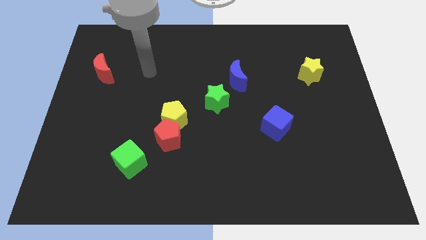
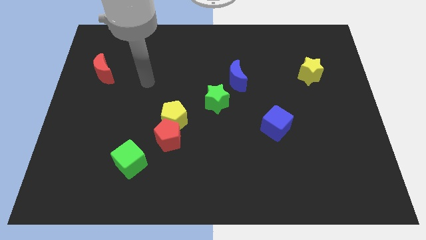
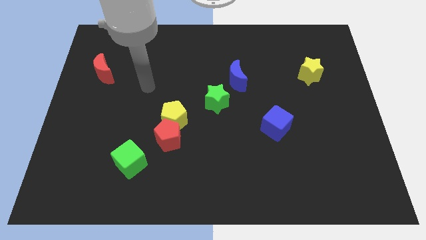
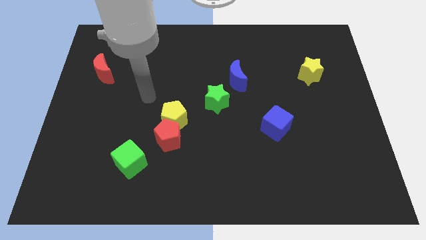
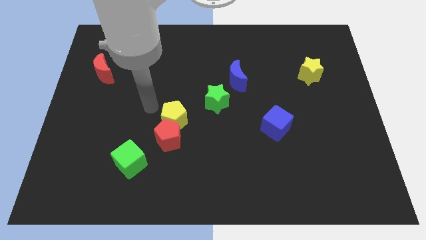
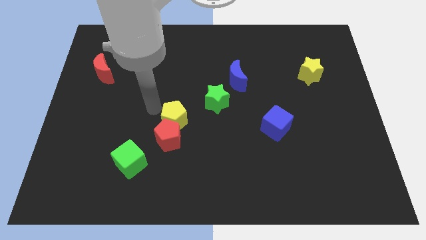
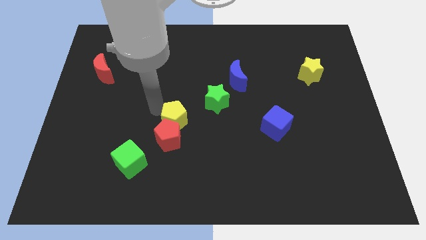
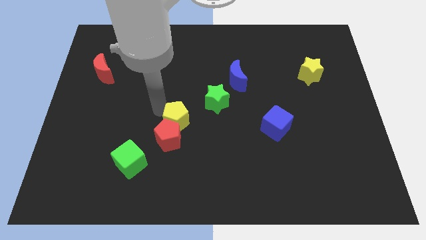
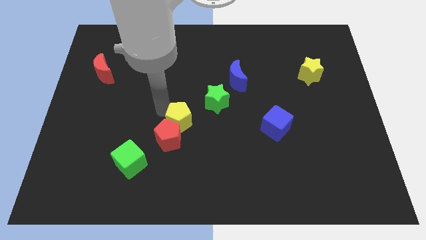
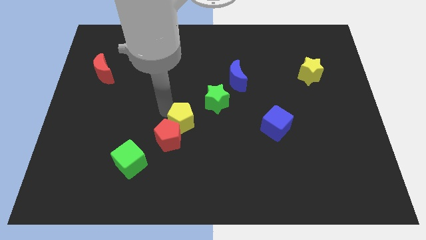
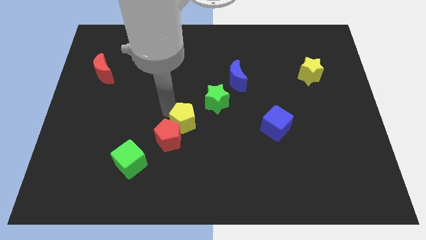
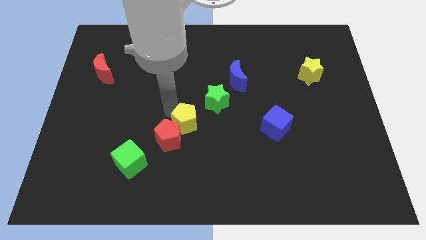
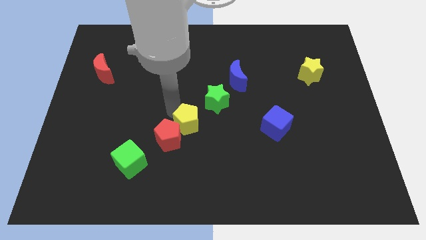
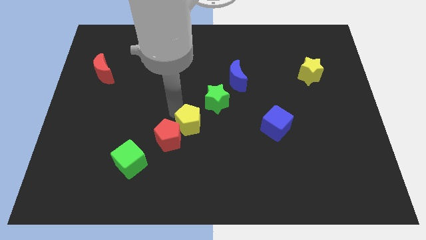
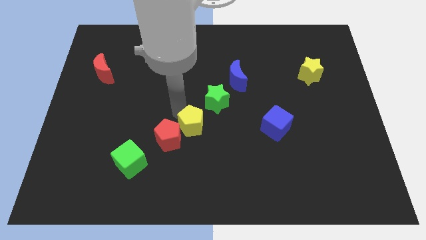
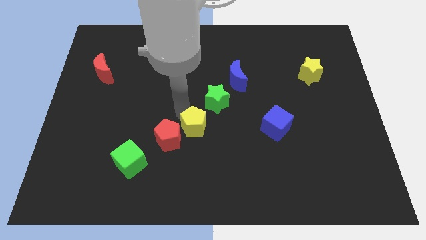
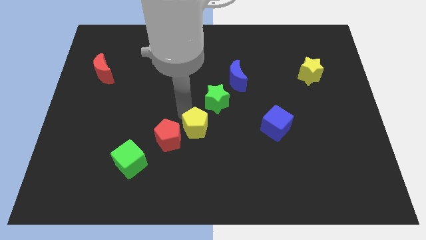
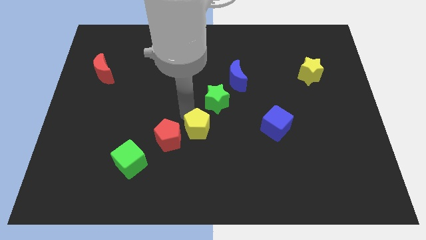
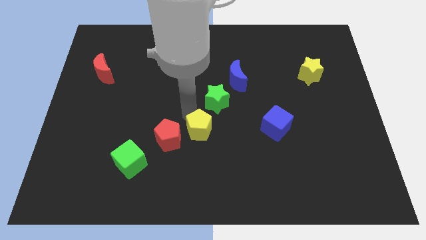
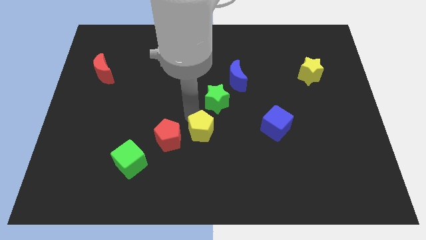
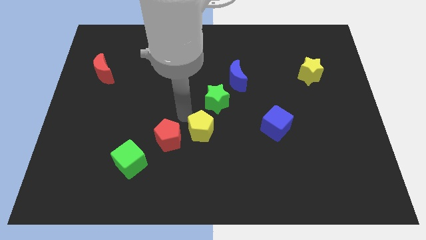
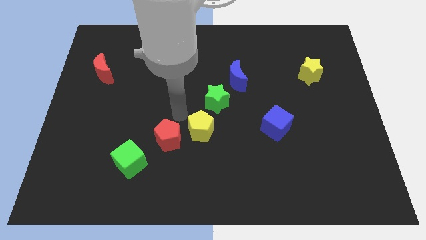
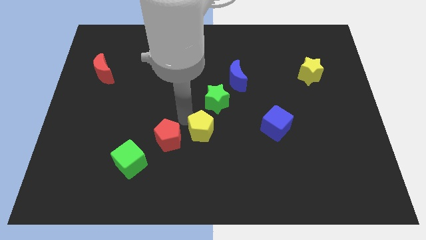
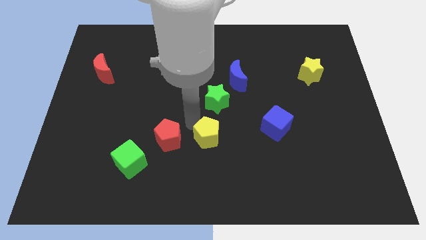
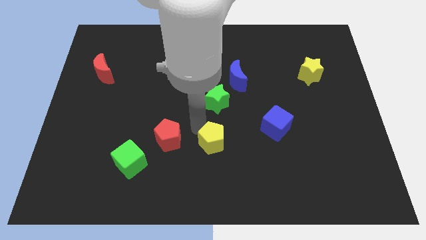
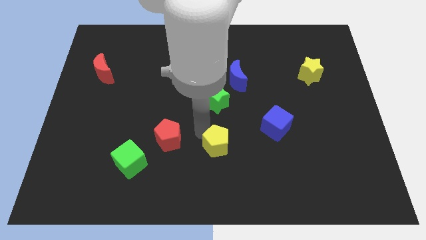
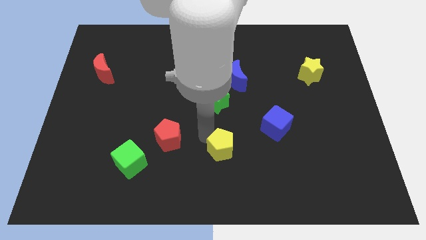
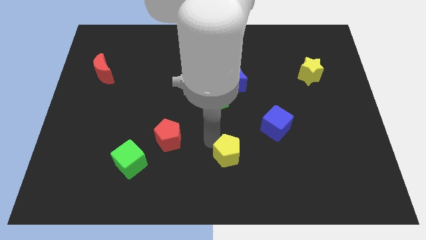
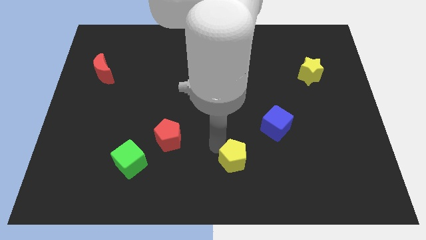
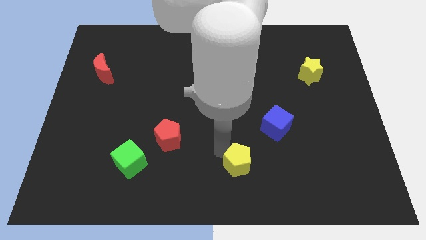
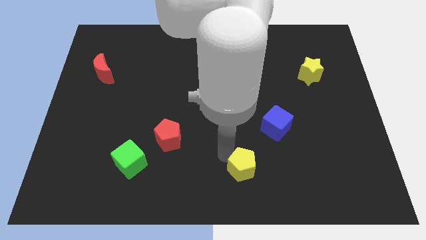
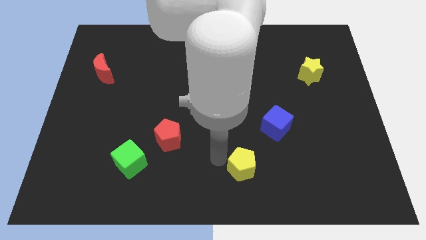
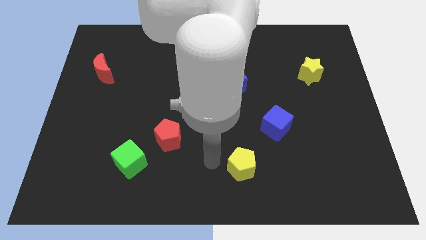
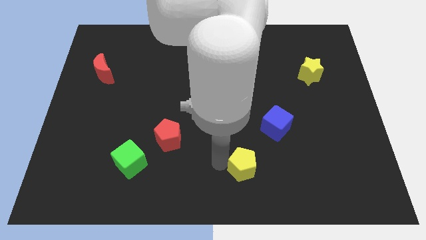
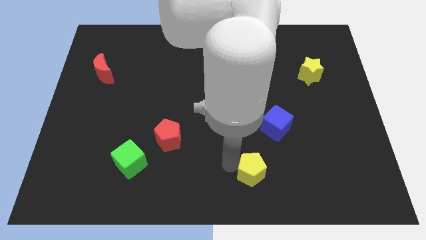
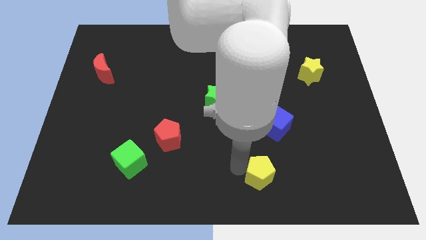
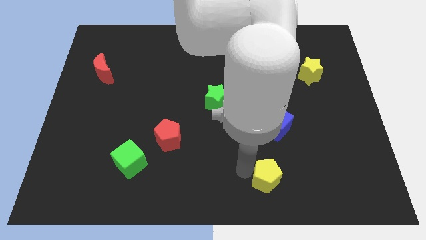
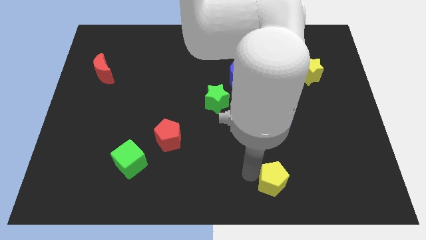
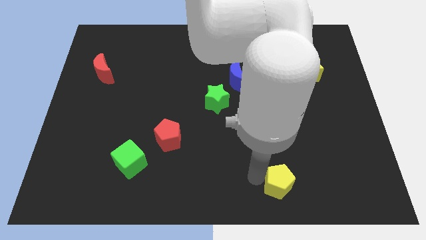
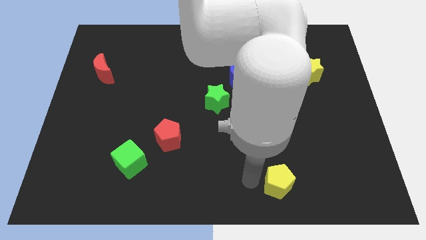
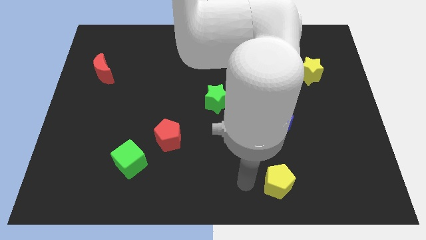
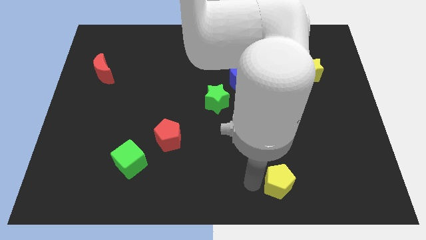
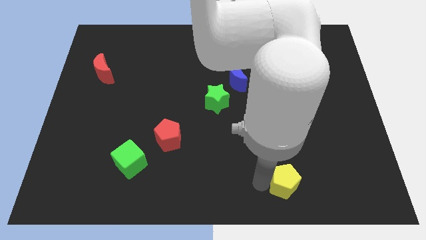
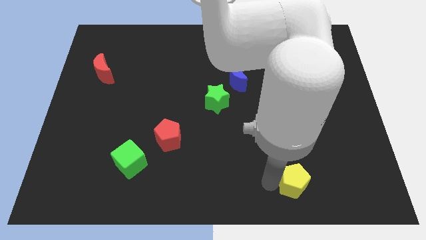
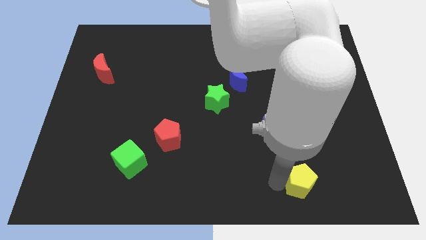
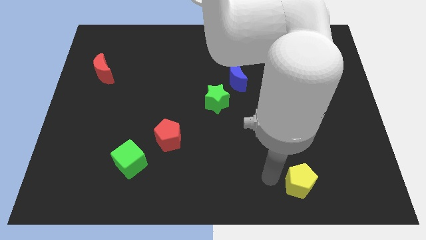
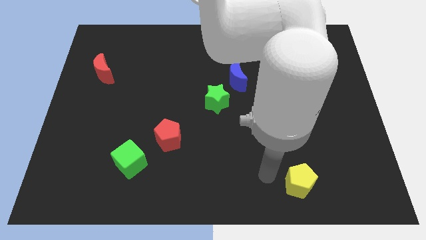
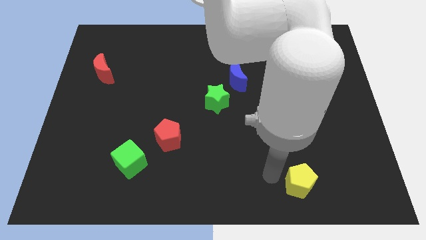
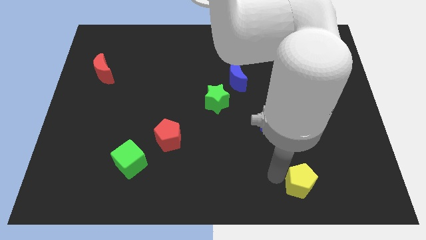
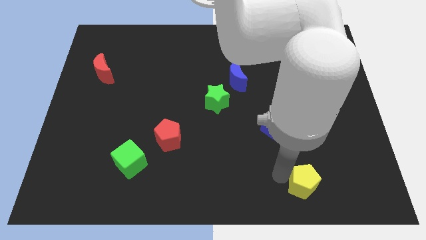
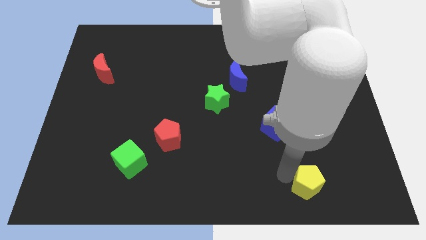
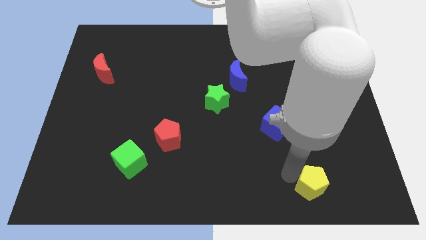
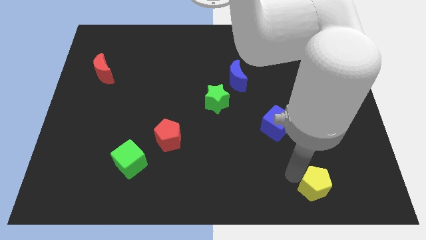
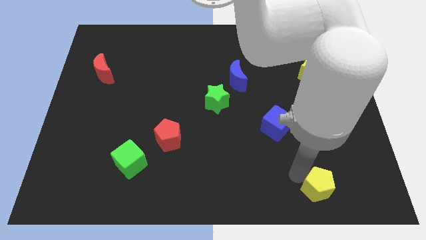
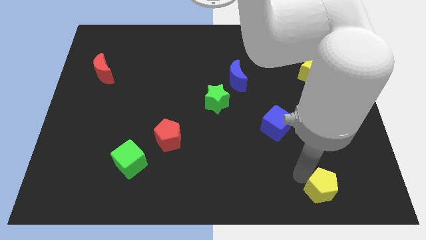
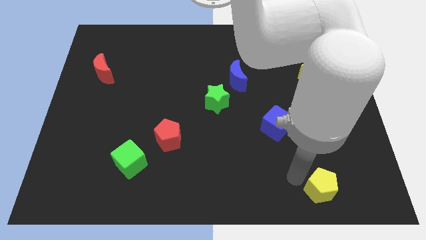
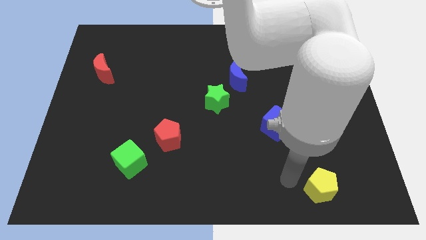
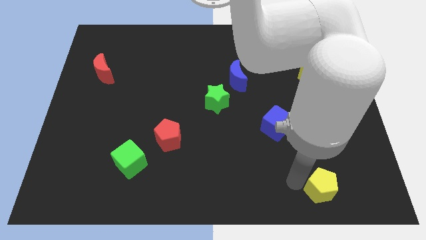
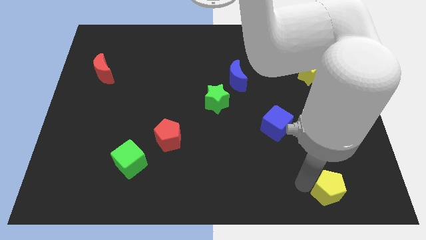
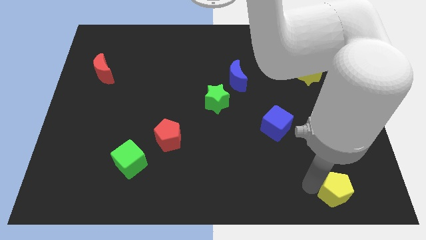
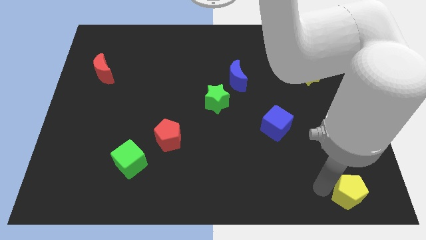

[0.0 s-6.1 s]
move the yellow pentagon to the lower right corner

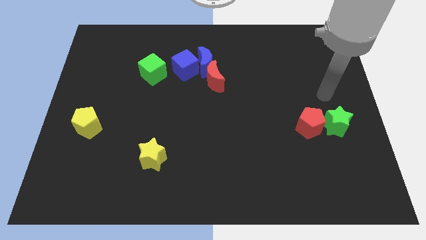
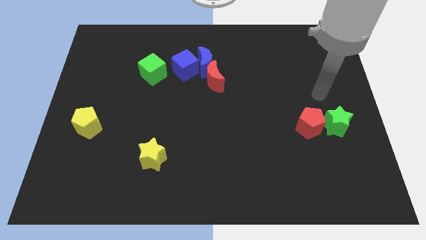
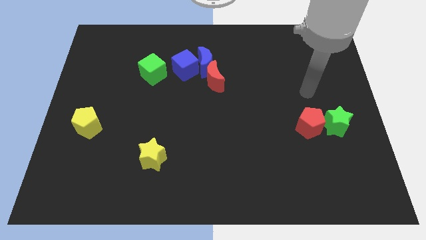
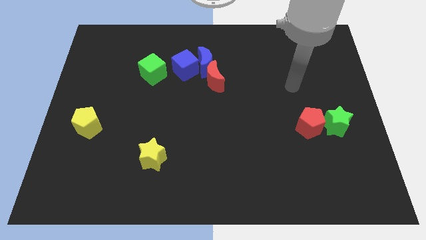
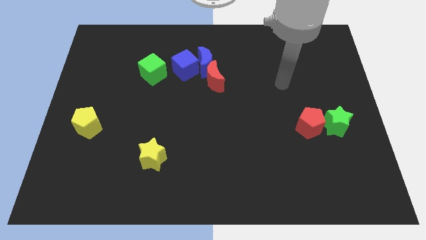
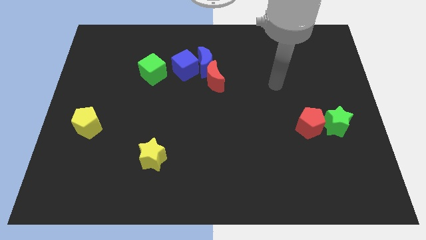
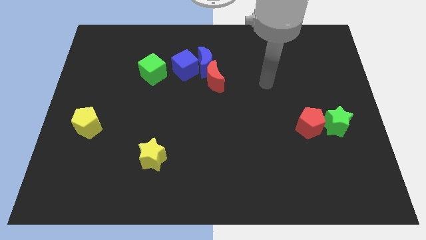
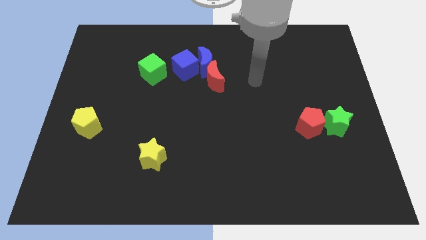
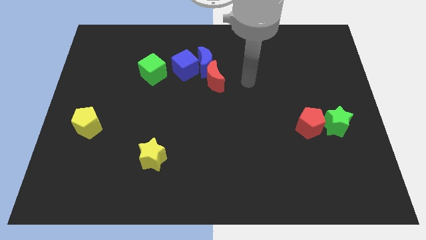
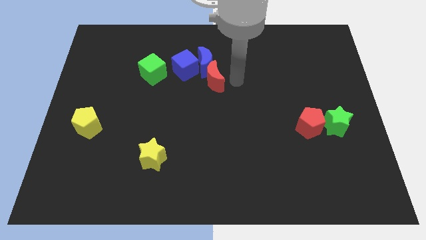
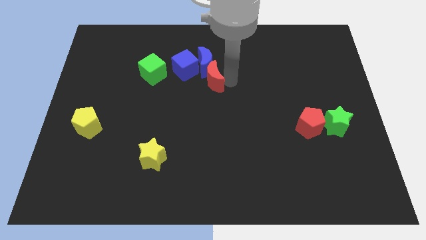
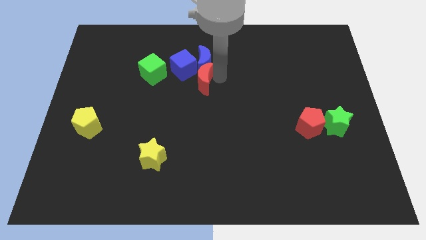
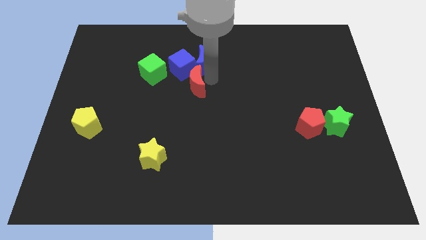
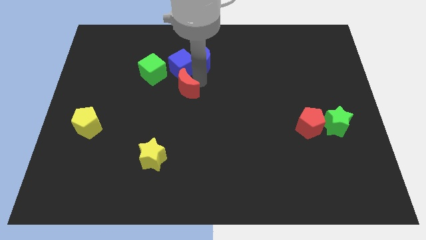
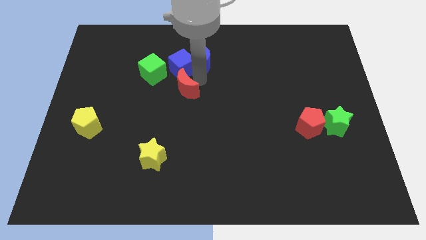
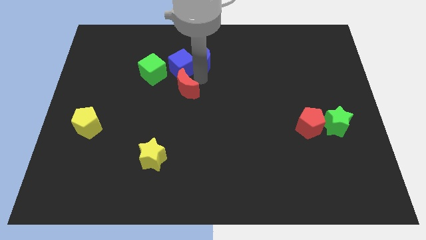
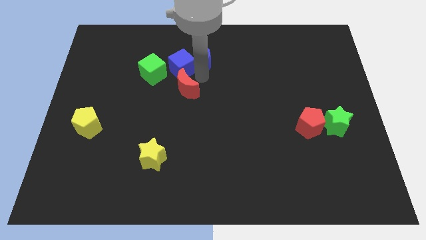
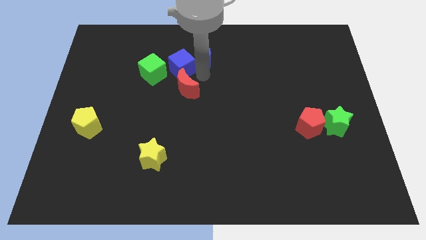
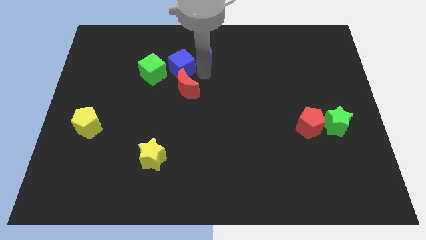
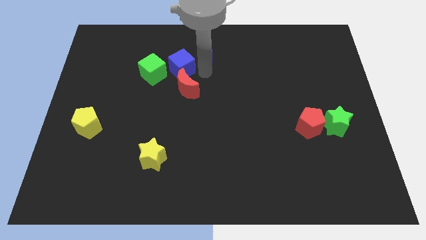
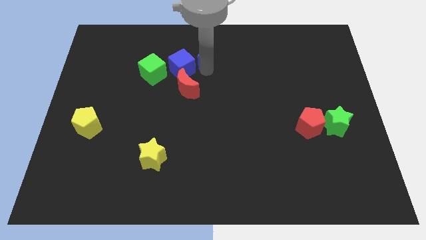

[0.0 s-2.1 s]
put the blue moon to the top
